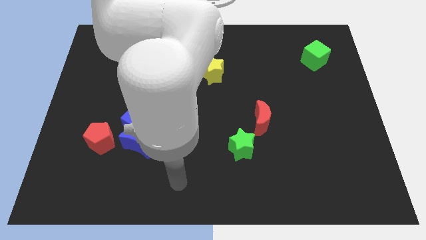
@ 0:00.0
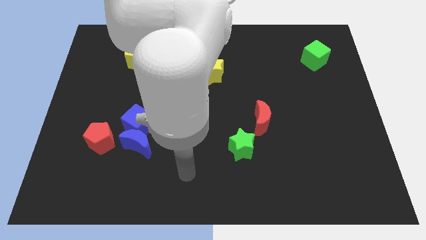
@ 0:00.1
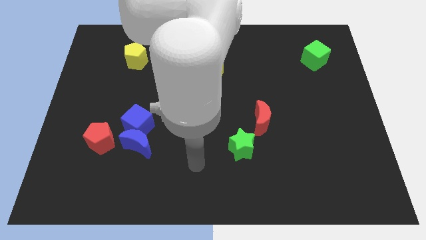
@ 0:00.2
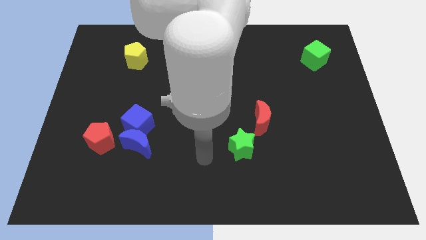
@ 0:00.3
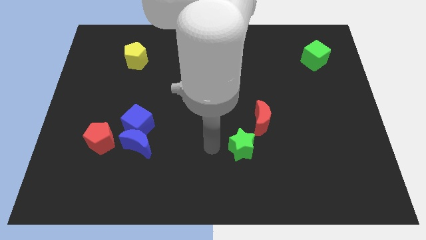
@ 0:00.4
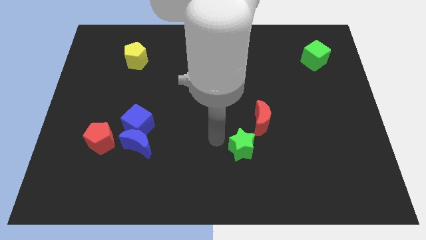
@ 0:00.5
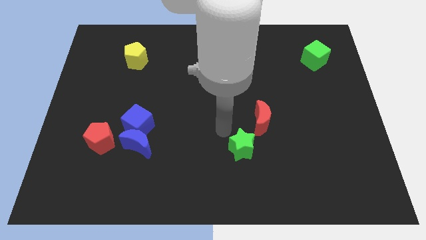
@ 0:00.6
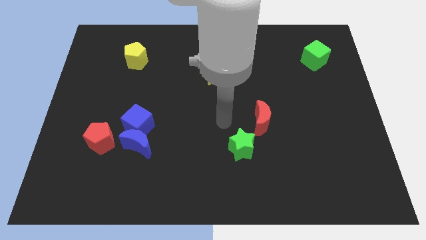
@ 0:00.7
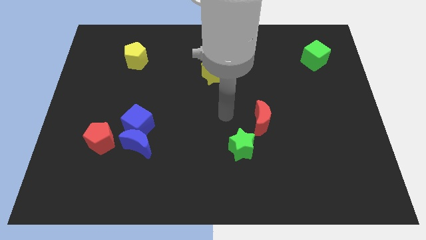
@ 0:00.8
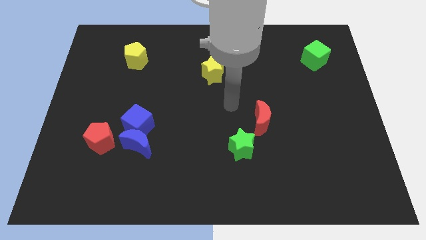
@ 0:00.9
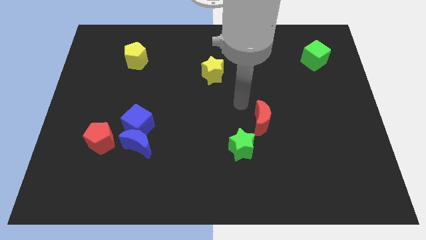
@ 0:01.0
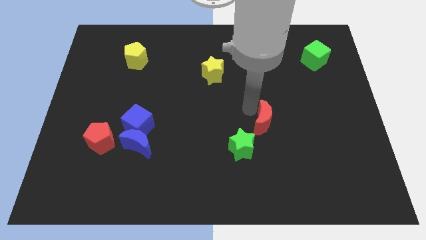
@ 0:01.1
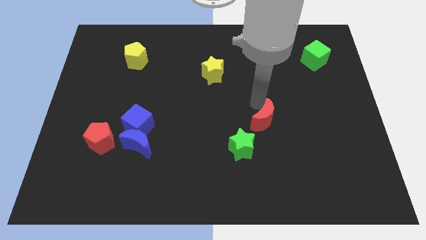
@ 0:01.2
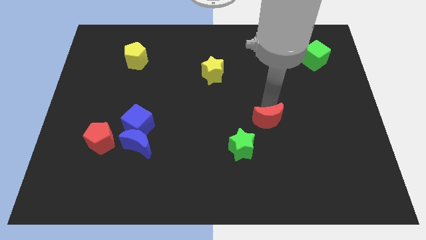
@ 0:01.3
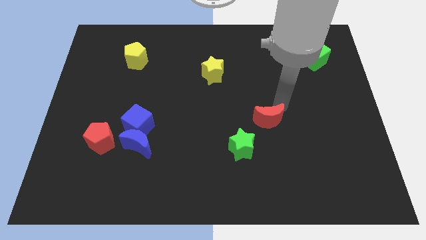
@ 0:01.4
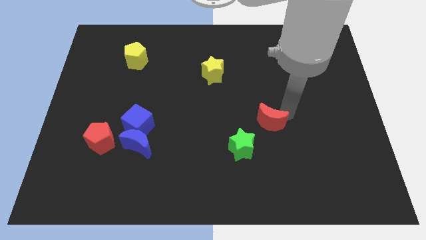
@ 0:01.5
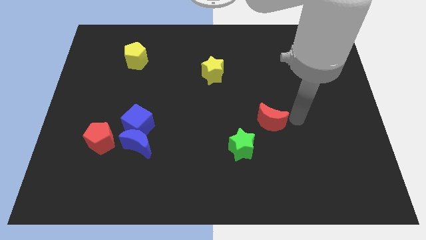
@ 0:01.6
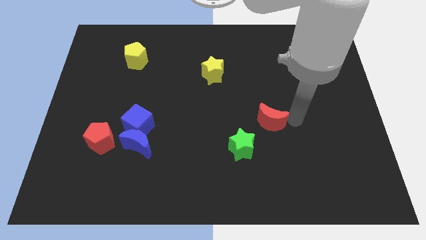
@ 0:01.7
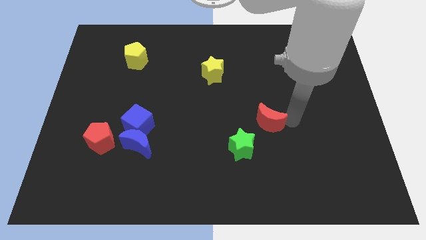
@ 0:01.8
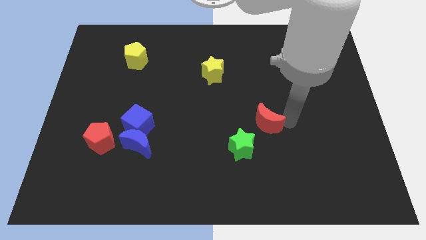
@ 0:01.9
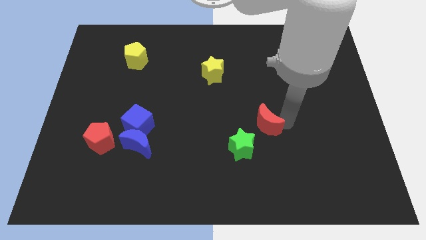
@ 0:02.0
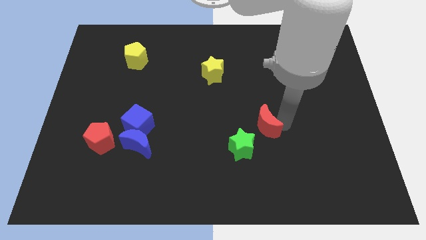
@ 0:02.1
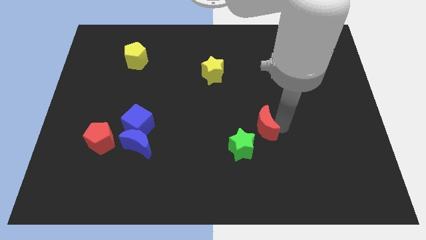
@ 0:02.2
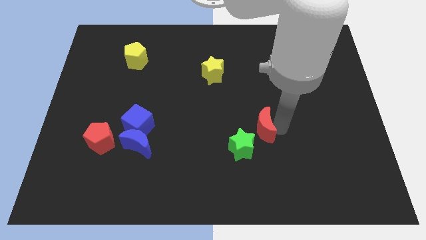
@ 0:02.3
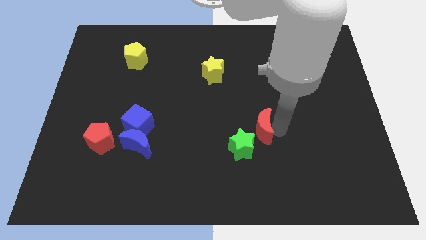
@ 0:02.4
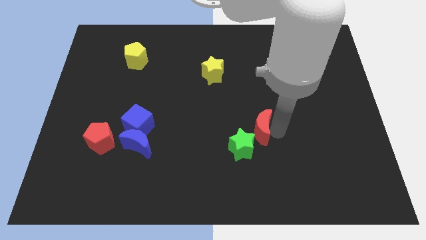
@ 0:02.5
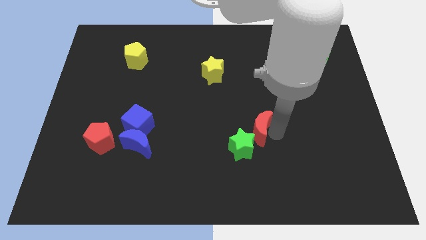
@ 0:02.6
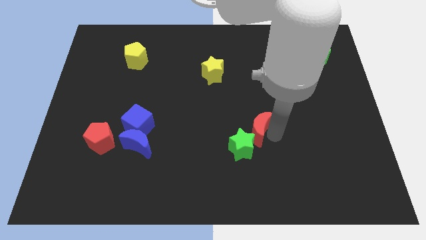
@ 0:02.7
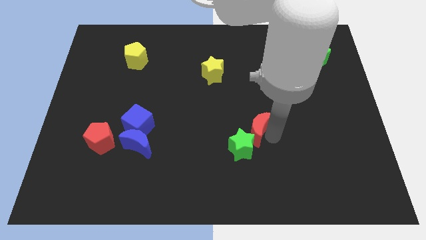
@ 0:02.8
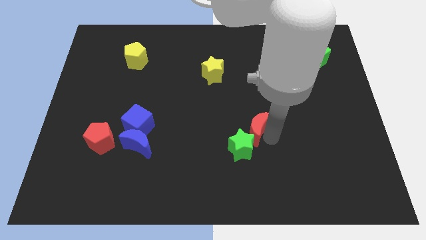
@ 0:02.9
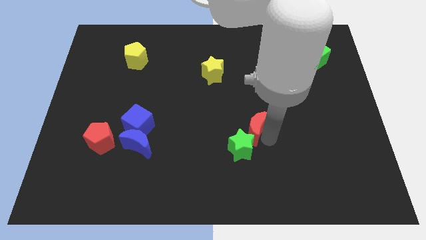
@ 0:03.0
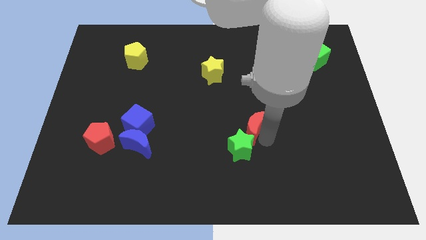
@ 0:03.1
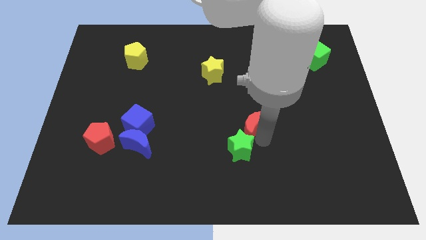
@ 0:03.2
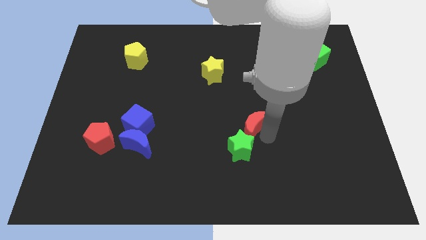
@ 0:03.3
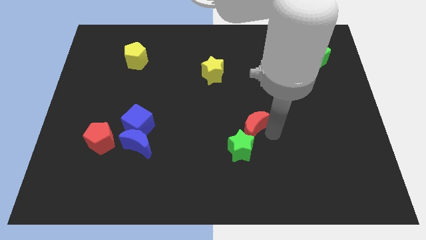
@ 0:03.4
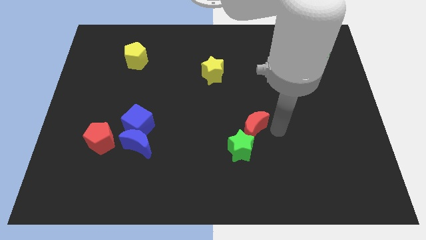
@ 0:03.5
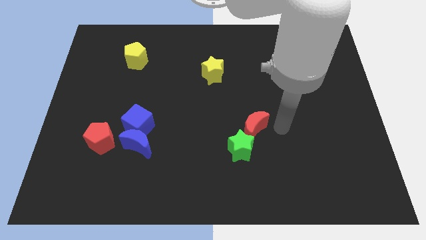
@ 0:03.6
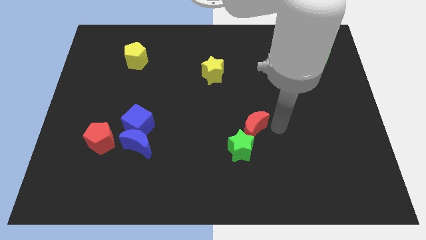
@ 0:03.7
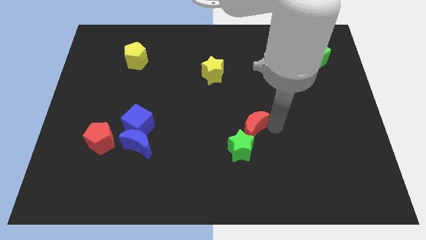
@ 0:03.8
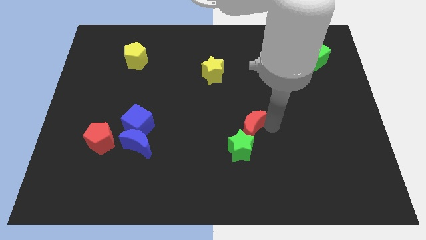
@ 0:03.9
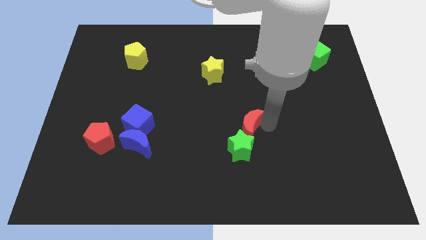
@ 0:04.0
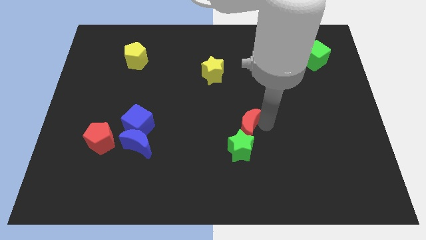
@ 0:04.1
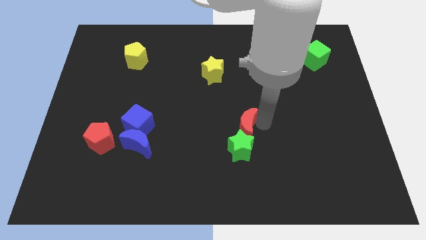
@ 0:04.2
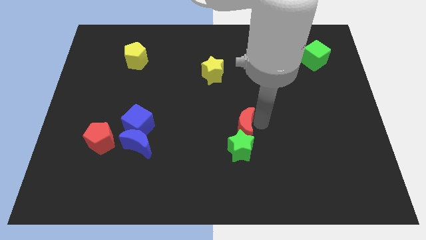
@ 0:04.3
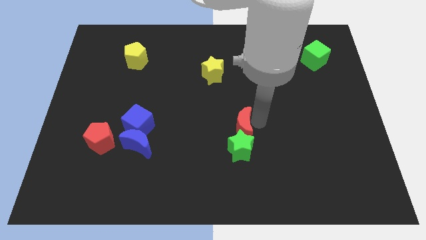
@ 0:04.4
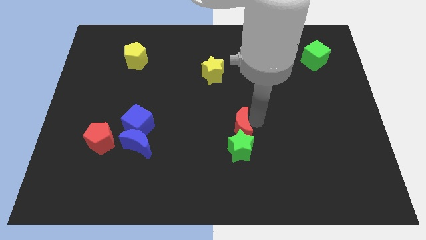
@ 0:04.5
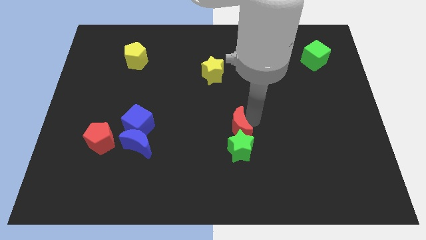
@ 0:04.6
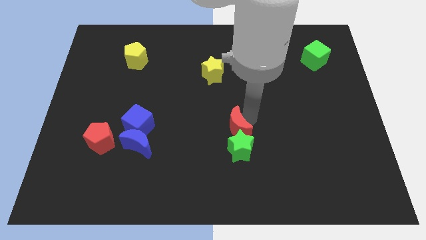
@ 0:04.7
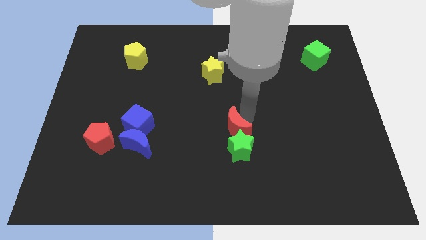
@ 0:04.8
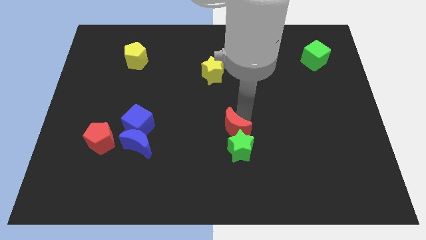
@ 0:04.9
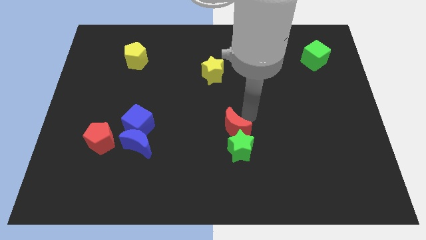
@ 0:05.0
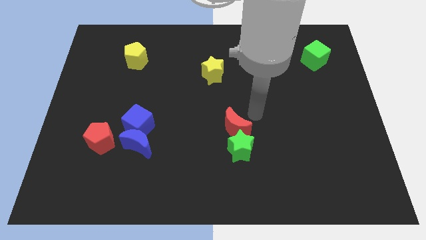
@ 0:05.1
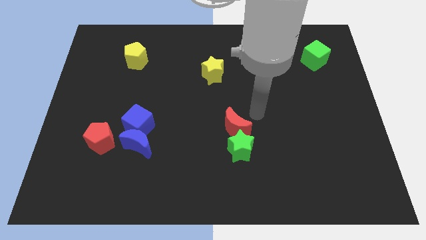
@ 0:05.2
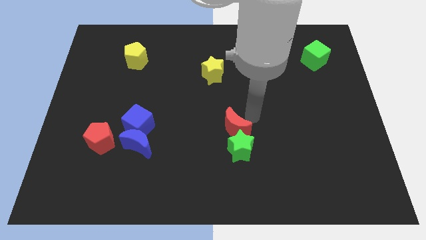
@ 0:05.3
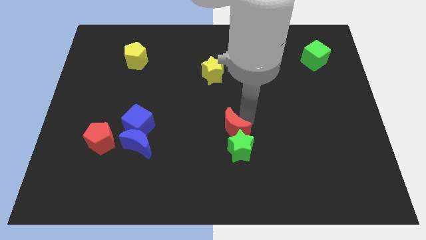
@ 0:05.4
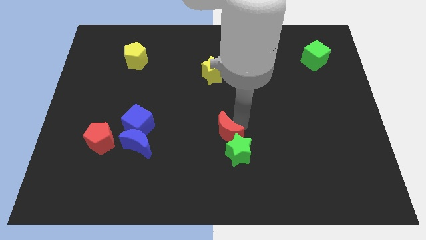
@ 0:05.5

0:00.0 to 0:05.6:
push the red moon a bit downwards and left

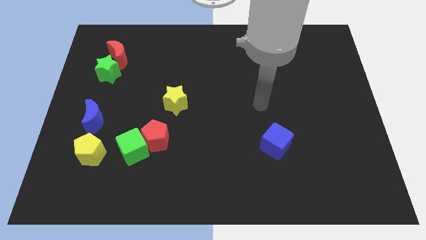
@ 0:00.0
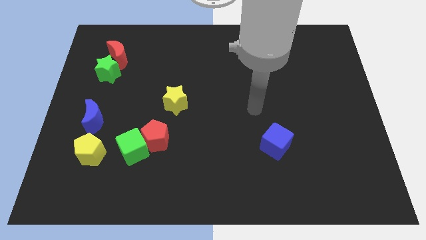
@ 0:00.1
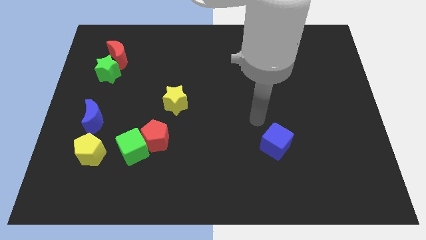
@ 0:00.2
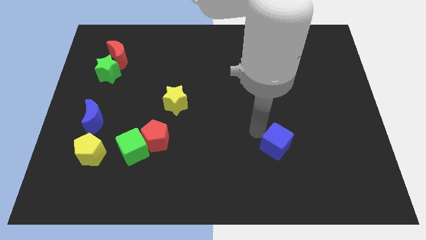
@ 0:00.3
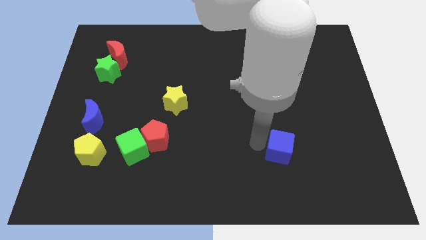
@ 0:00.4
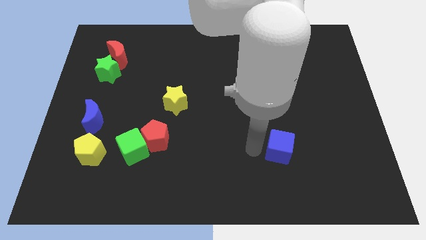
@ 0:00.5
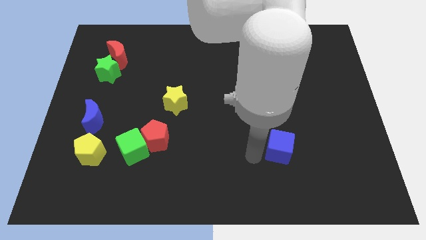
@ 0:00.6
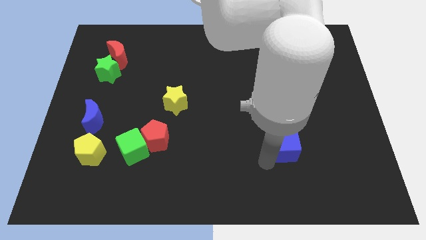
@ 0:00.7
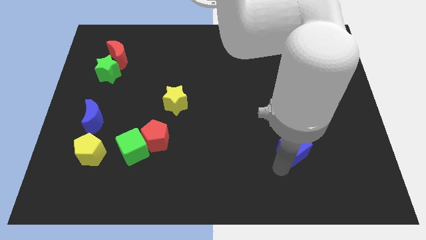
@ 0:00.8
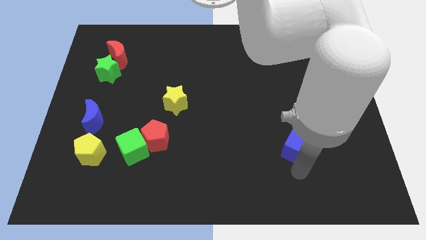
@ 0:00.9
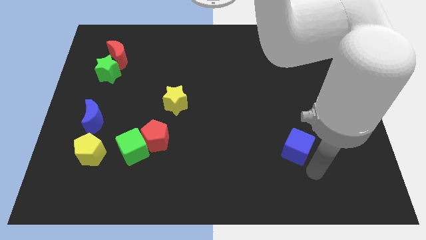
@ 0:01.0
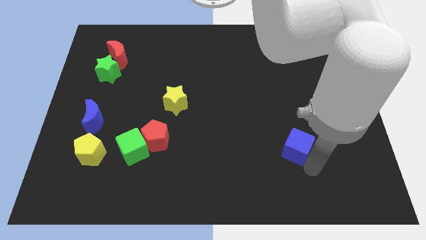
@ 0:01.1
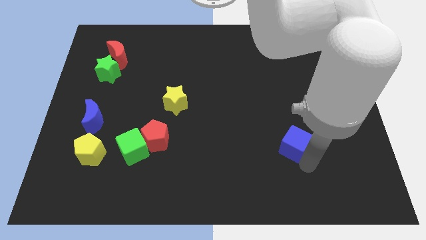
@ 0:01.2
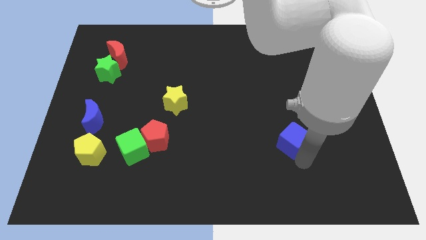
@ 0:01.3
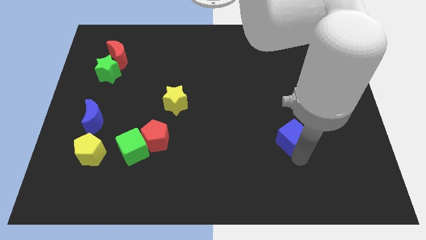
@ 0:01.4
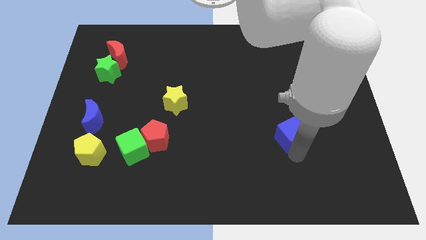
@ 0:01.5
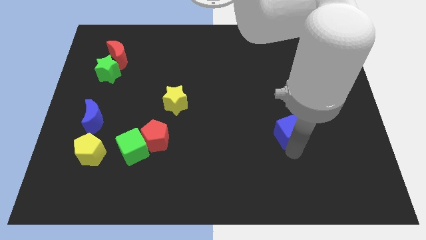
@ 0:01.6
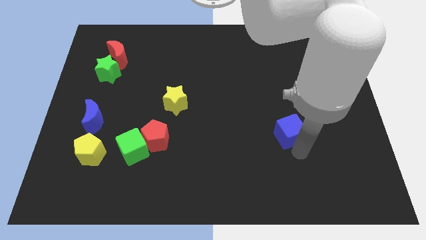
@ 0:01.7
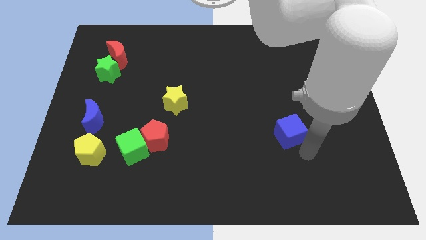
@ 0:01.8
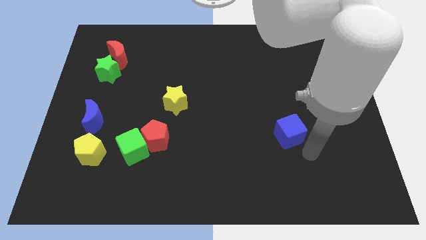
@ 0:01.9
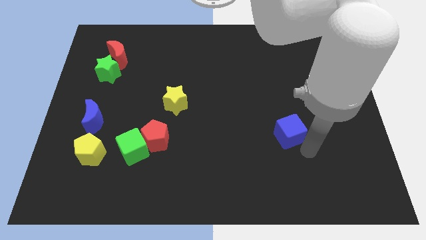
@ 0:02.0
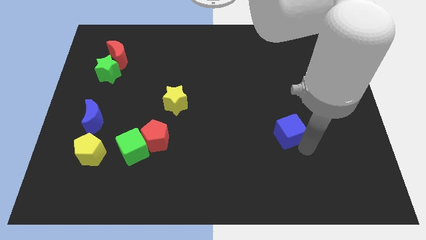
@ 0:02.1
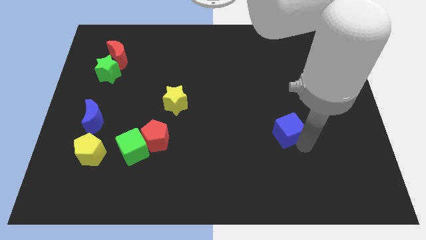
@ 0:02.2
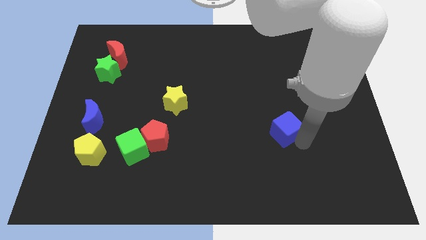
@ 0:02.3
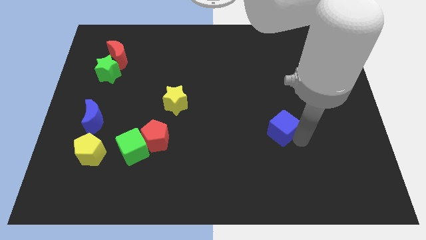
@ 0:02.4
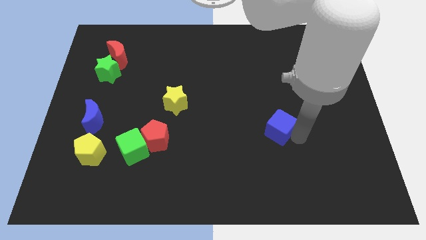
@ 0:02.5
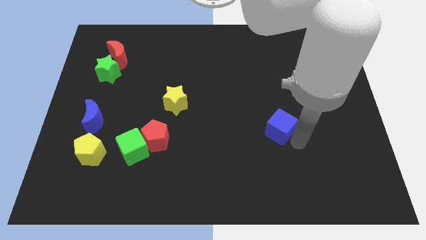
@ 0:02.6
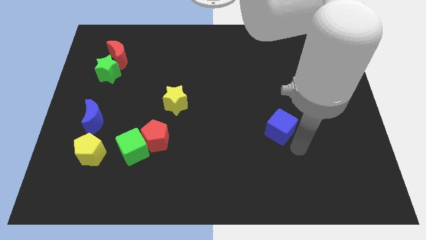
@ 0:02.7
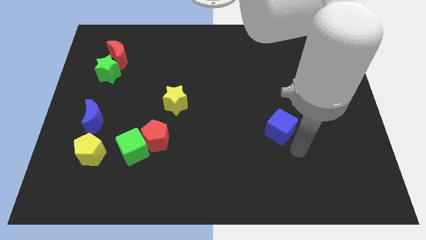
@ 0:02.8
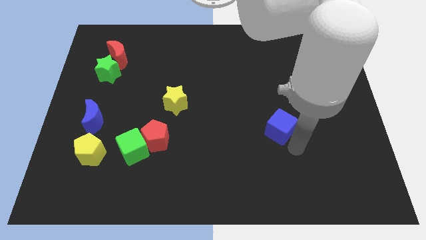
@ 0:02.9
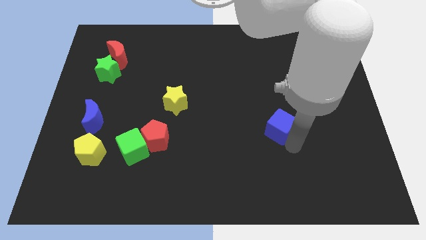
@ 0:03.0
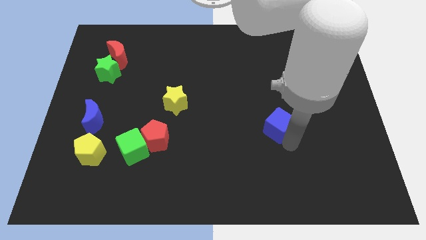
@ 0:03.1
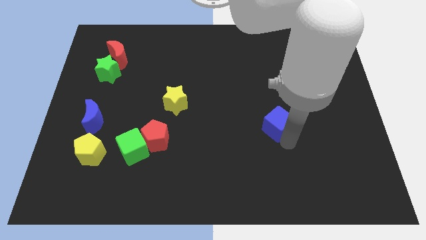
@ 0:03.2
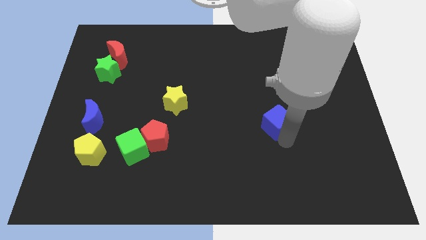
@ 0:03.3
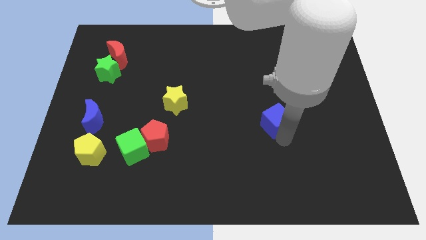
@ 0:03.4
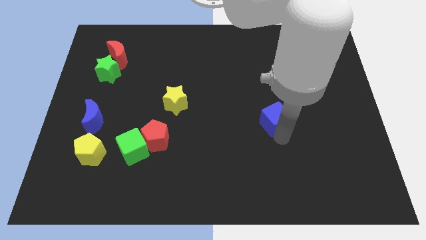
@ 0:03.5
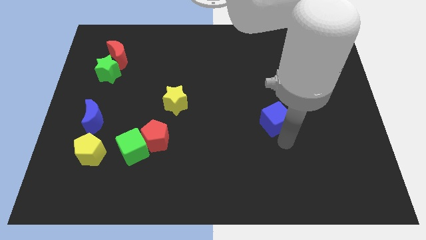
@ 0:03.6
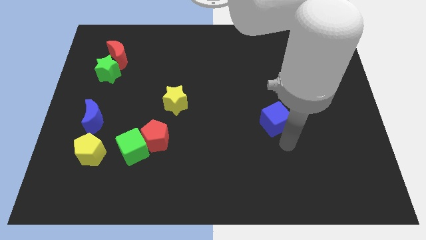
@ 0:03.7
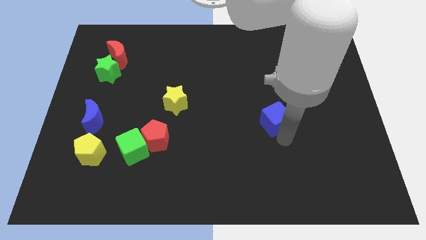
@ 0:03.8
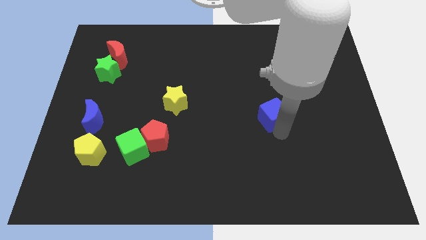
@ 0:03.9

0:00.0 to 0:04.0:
push the blue cube up slightly
